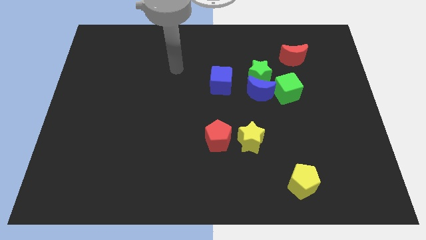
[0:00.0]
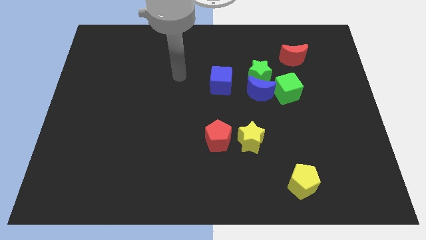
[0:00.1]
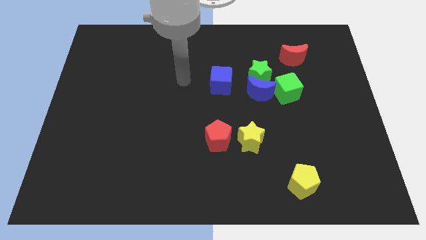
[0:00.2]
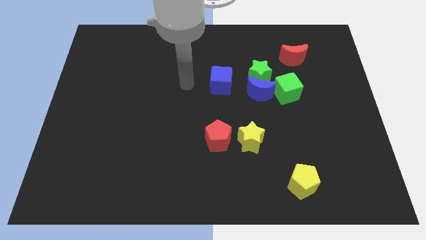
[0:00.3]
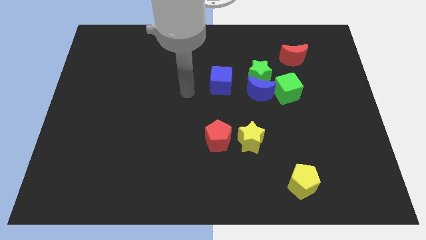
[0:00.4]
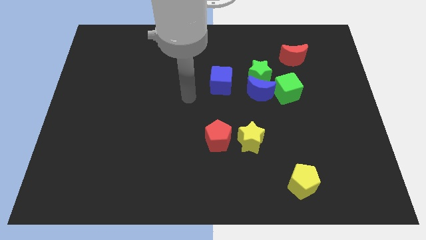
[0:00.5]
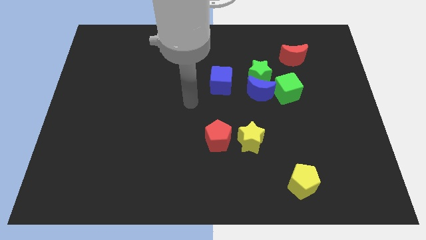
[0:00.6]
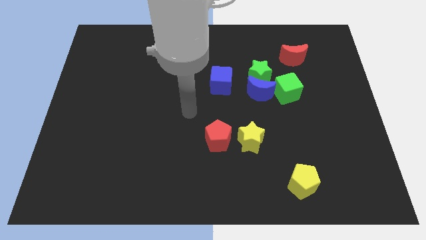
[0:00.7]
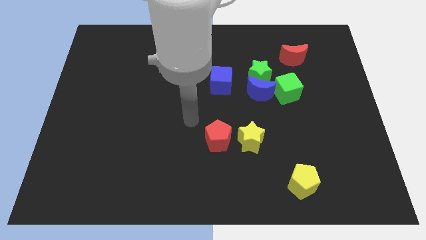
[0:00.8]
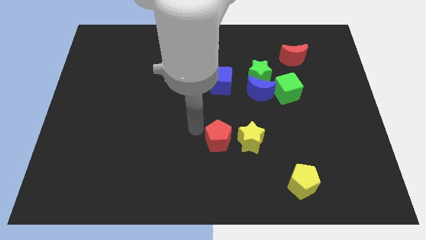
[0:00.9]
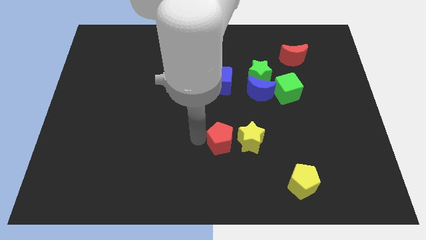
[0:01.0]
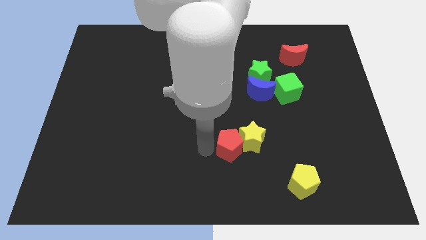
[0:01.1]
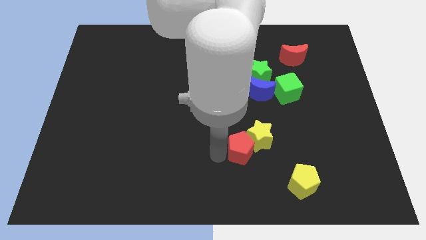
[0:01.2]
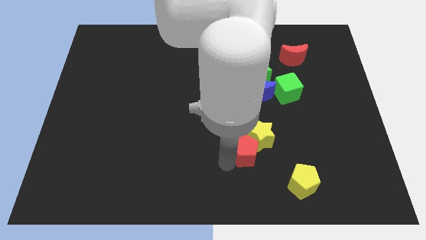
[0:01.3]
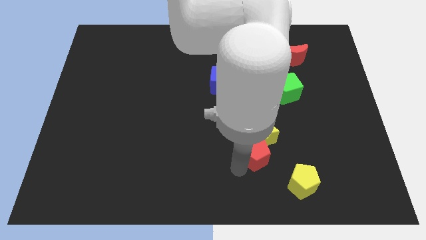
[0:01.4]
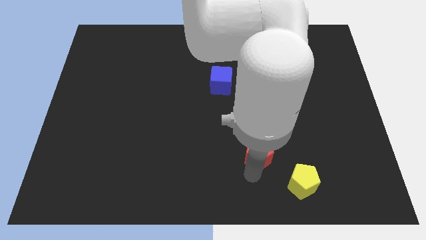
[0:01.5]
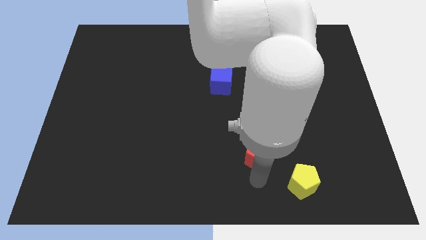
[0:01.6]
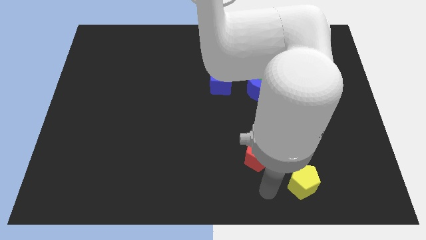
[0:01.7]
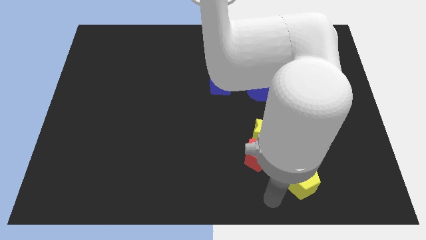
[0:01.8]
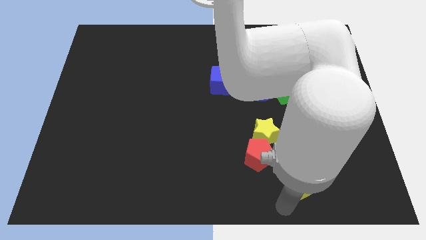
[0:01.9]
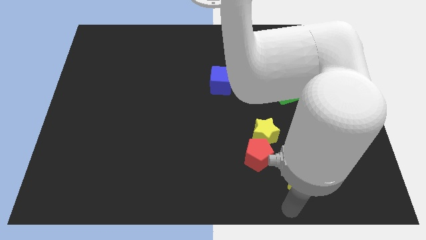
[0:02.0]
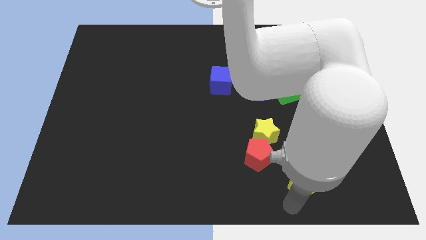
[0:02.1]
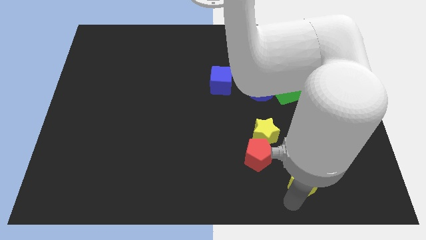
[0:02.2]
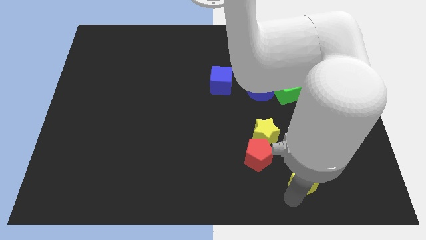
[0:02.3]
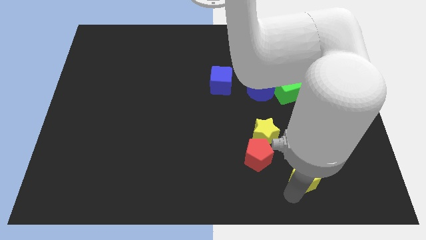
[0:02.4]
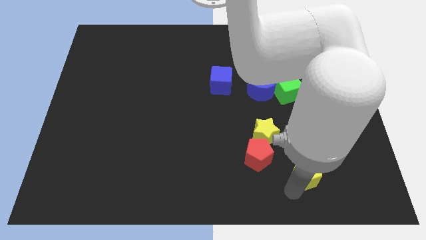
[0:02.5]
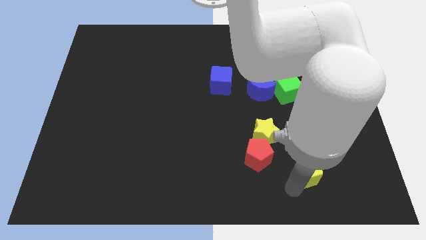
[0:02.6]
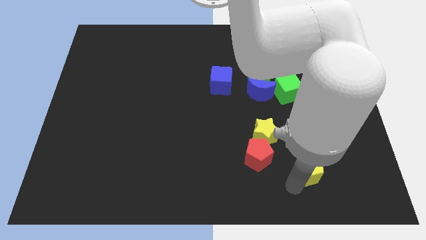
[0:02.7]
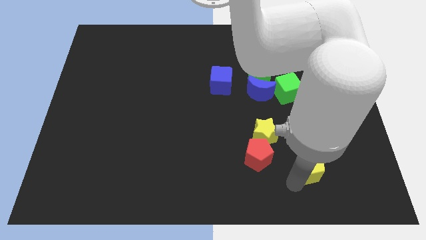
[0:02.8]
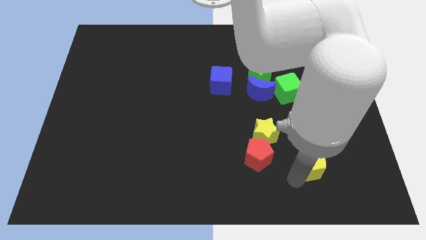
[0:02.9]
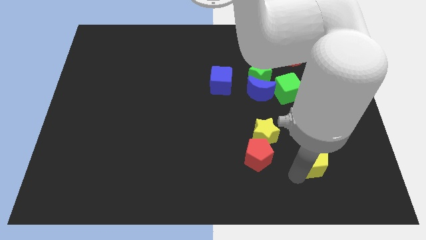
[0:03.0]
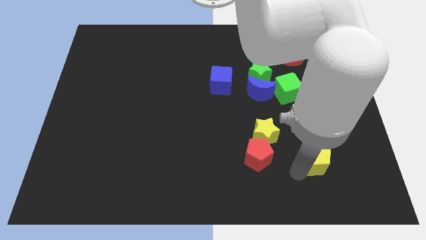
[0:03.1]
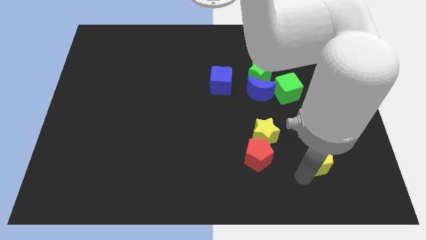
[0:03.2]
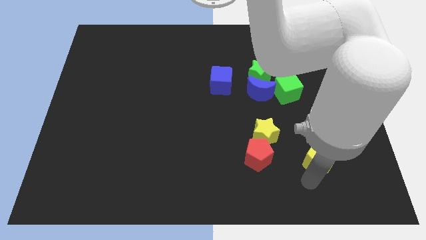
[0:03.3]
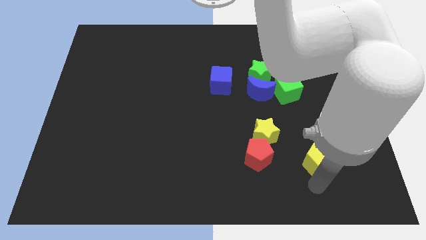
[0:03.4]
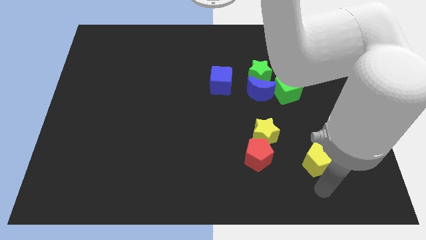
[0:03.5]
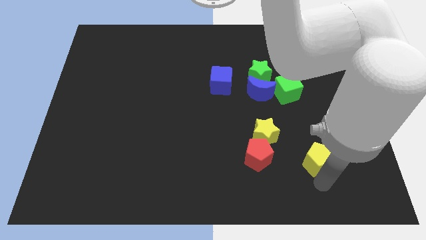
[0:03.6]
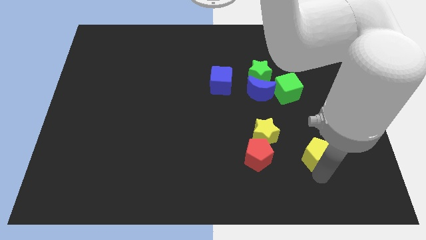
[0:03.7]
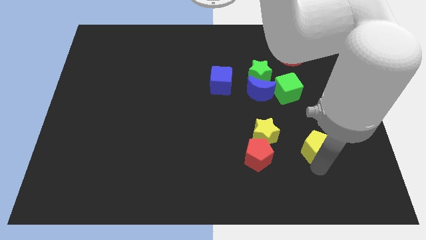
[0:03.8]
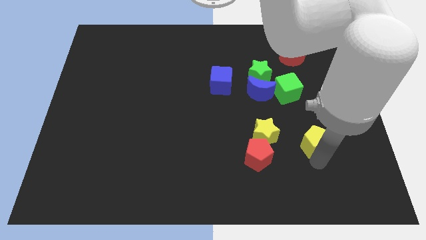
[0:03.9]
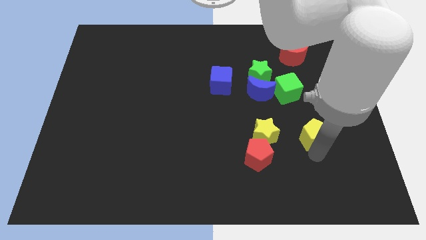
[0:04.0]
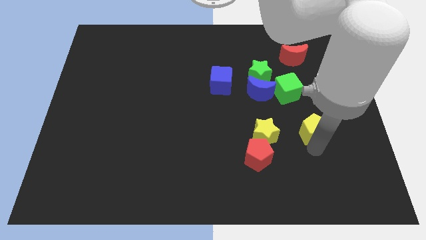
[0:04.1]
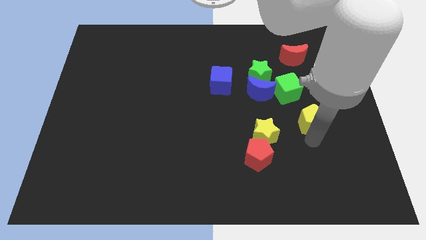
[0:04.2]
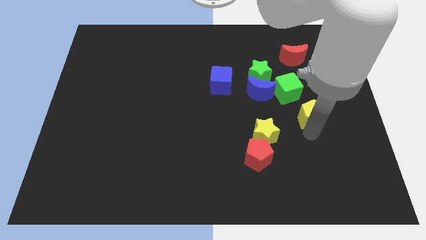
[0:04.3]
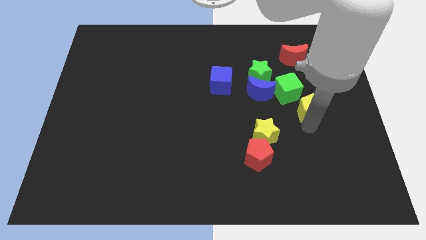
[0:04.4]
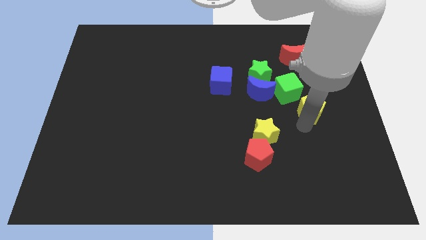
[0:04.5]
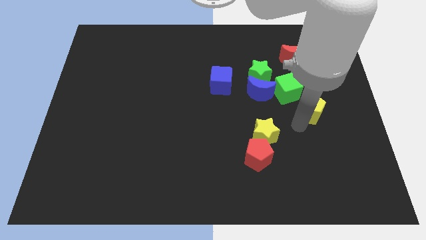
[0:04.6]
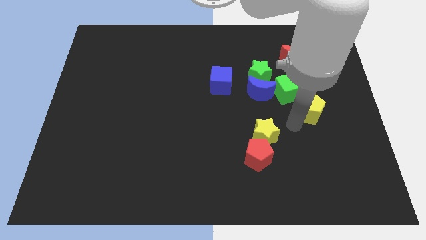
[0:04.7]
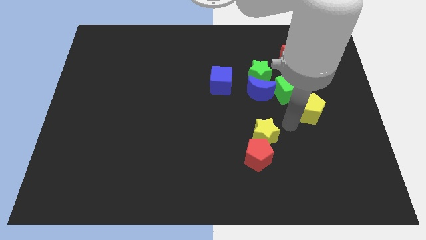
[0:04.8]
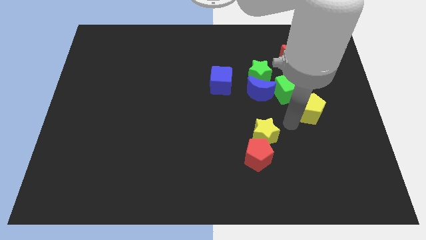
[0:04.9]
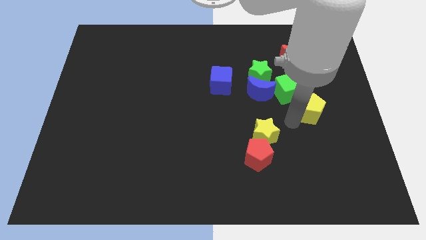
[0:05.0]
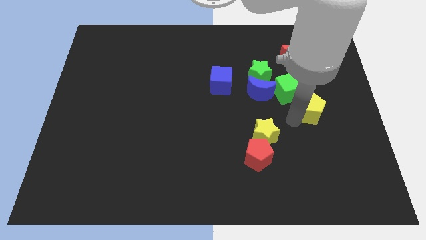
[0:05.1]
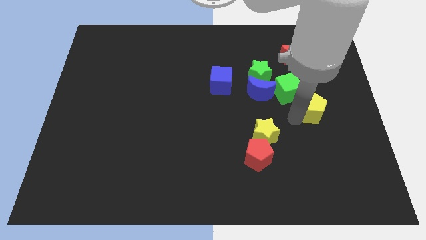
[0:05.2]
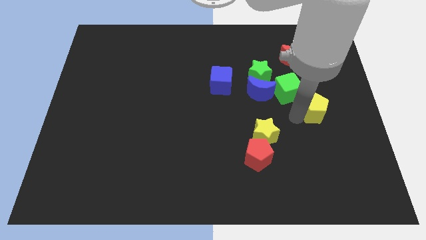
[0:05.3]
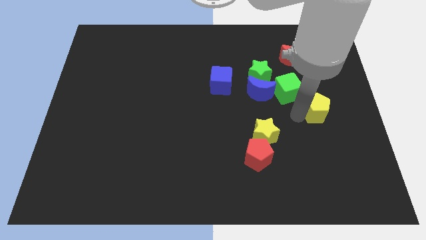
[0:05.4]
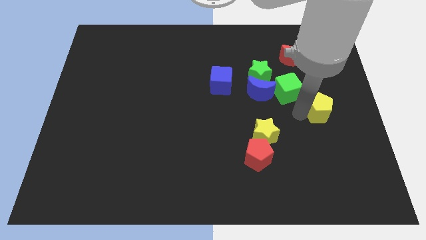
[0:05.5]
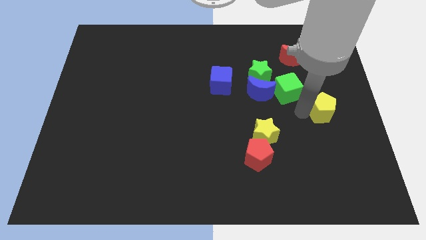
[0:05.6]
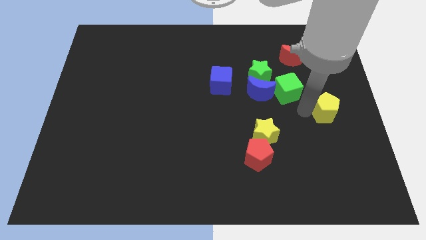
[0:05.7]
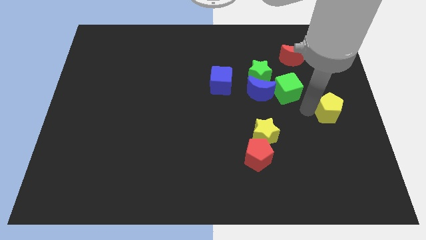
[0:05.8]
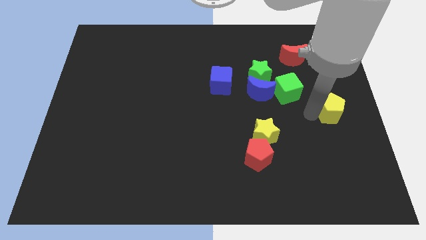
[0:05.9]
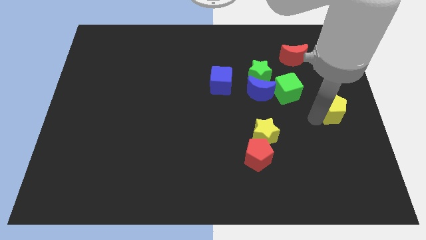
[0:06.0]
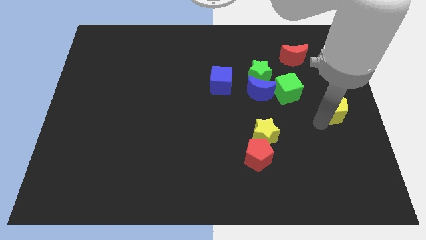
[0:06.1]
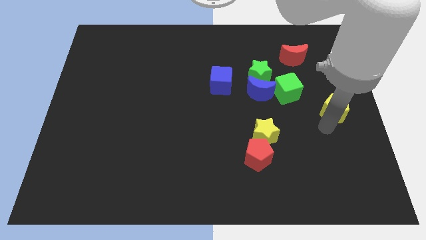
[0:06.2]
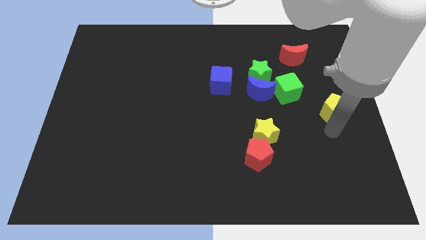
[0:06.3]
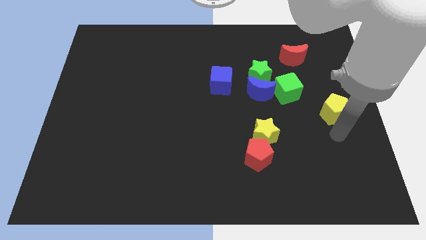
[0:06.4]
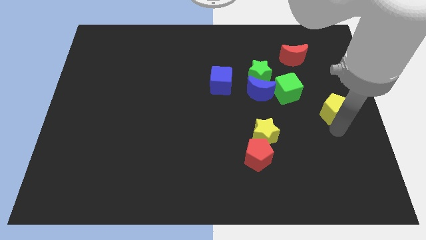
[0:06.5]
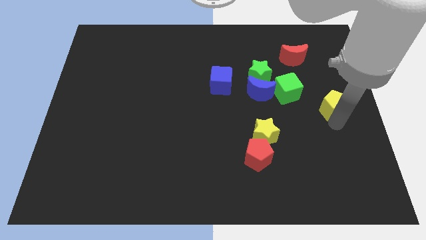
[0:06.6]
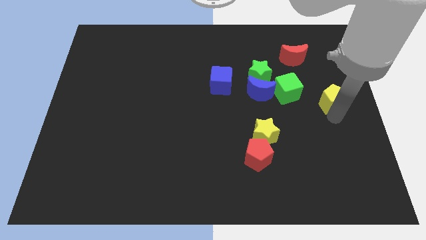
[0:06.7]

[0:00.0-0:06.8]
push the yellow pentagon just right of the green cube

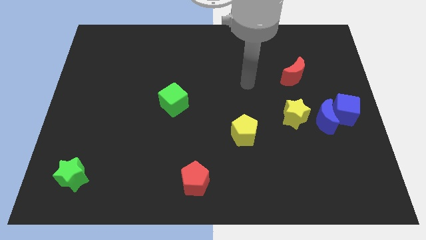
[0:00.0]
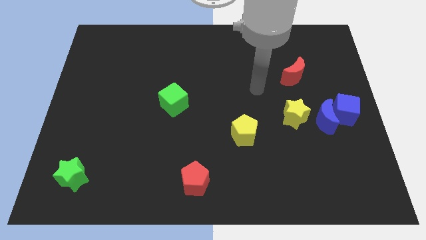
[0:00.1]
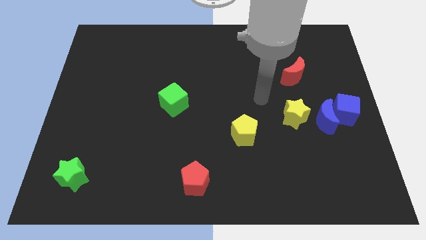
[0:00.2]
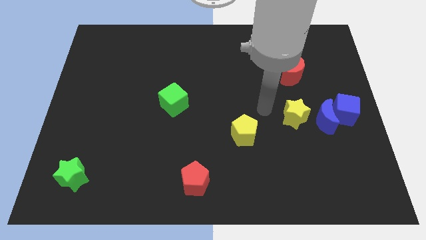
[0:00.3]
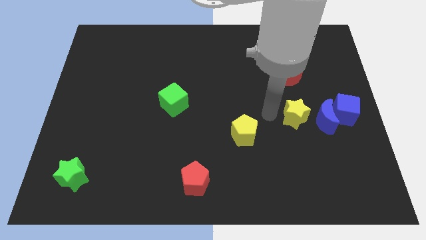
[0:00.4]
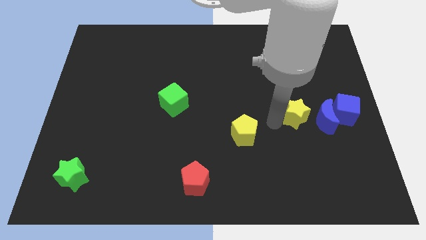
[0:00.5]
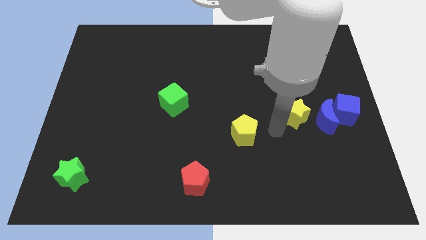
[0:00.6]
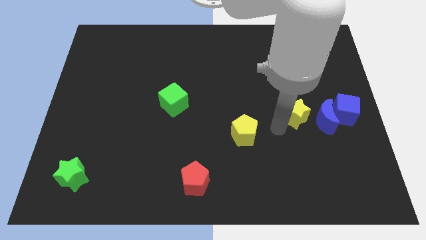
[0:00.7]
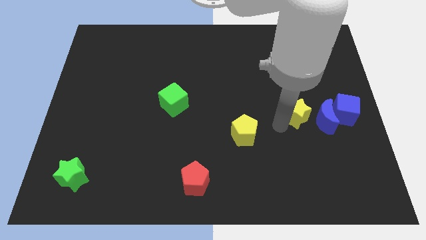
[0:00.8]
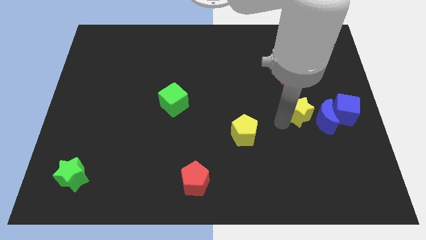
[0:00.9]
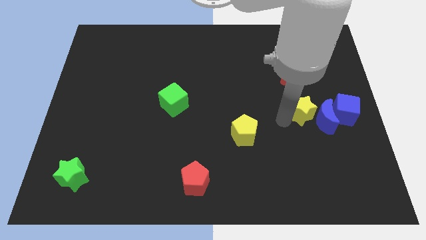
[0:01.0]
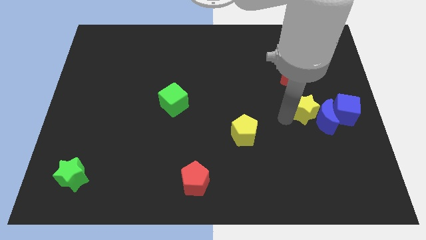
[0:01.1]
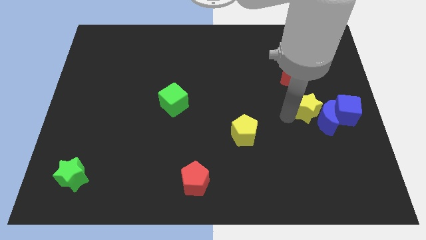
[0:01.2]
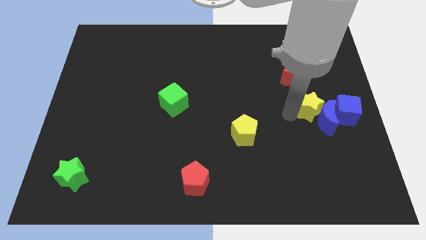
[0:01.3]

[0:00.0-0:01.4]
push the yellow star to the top left side of the blue cube
